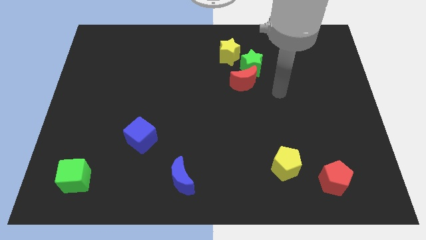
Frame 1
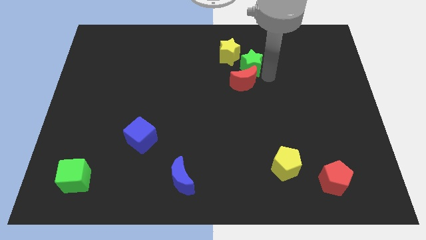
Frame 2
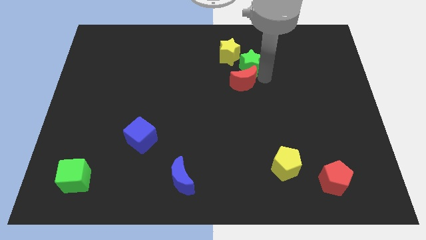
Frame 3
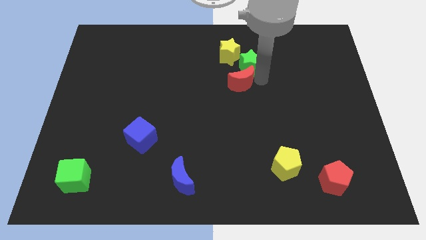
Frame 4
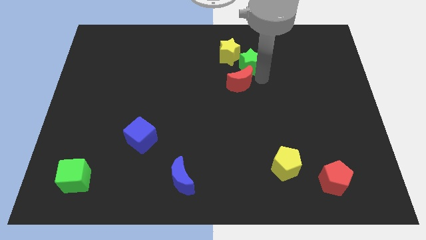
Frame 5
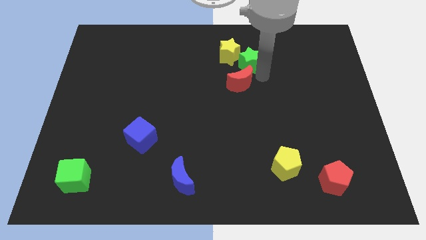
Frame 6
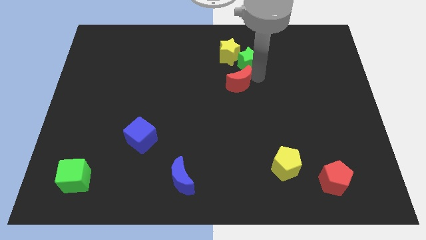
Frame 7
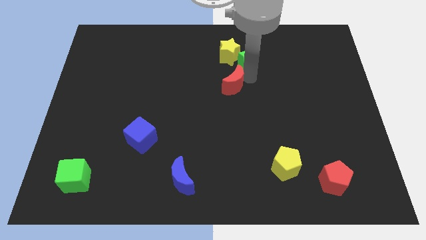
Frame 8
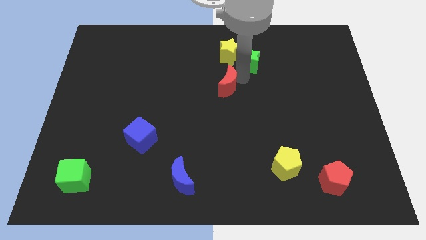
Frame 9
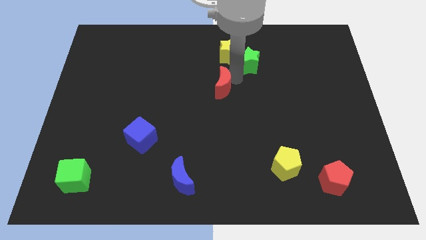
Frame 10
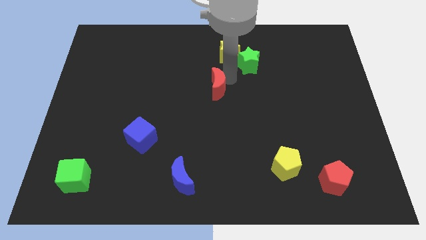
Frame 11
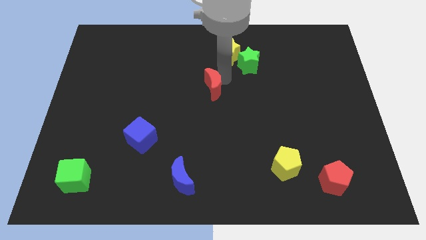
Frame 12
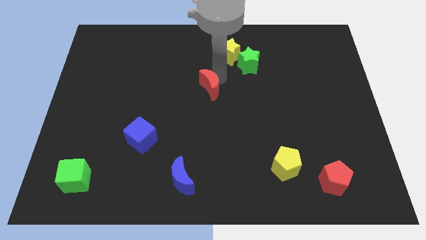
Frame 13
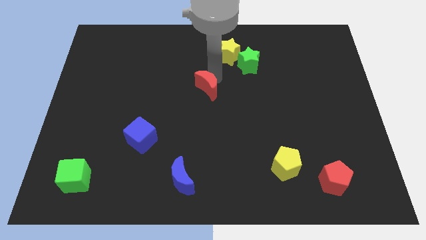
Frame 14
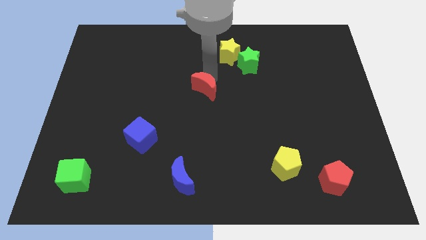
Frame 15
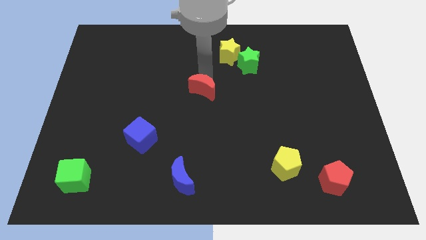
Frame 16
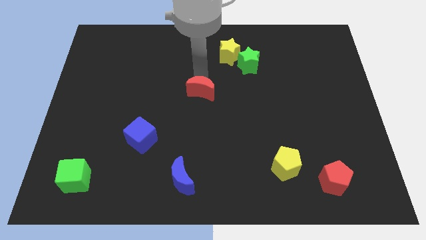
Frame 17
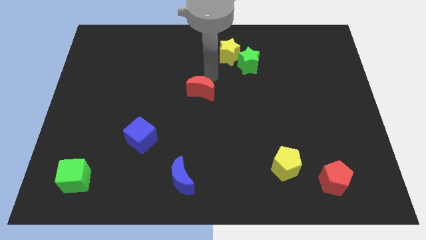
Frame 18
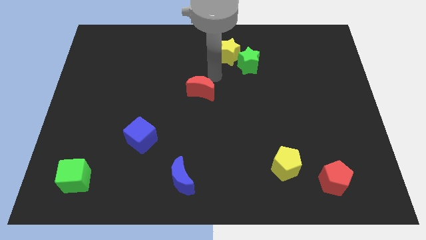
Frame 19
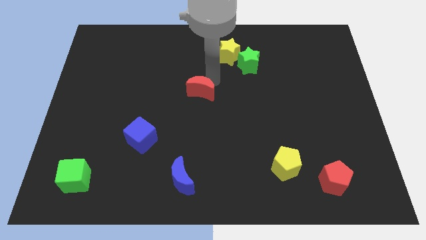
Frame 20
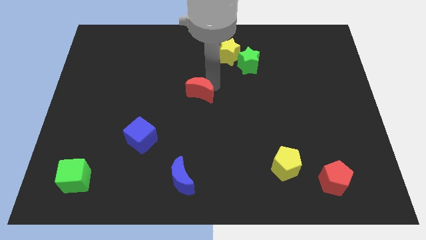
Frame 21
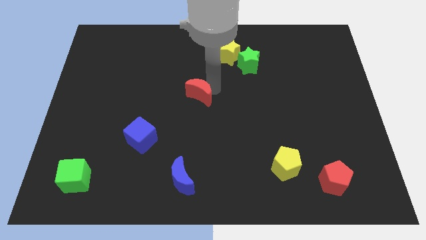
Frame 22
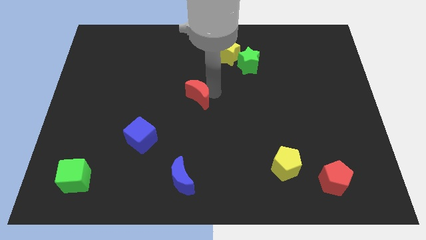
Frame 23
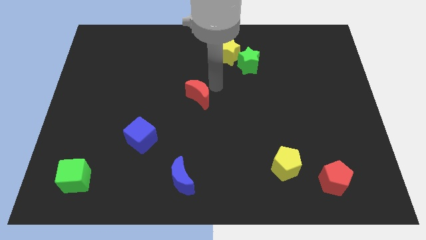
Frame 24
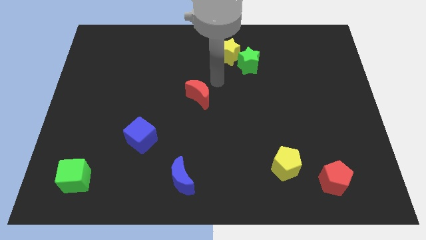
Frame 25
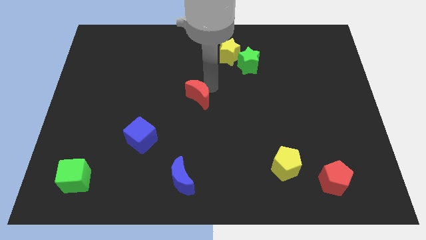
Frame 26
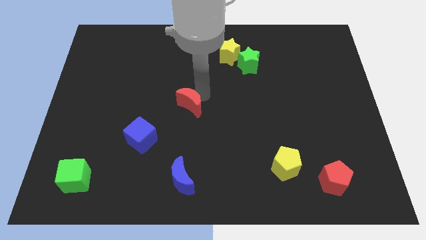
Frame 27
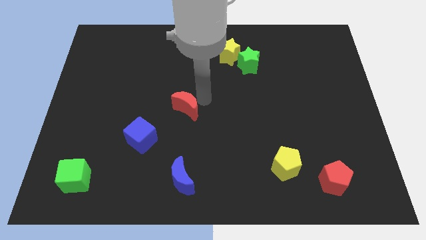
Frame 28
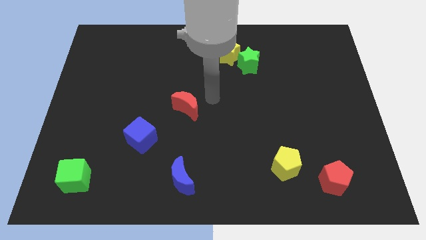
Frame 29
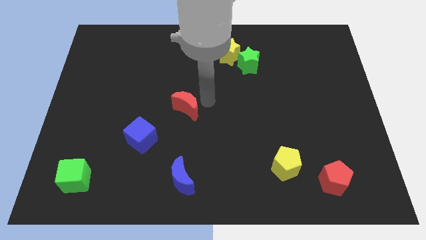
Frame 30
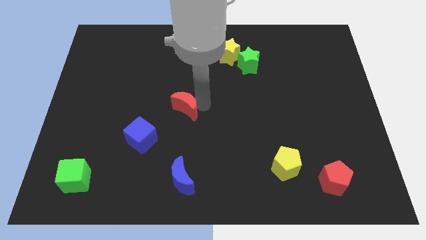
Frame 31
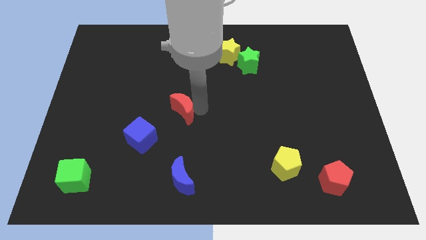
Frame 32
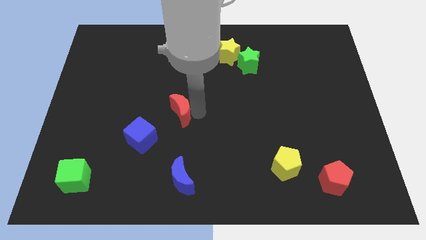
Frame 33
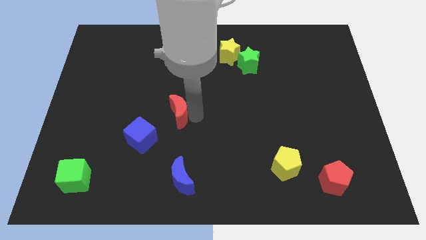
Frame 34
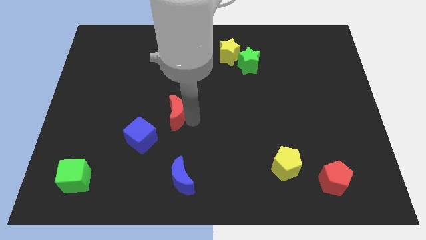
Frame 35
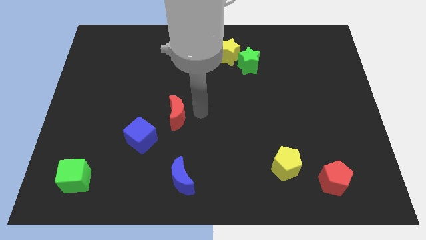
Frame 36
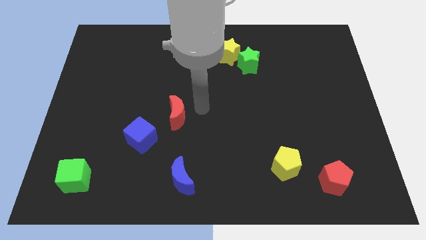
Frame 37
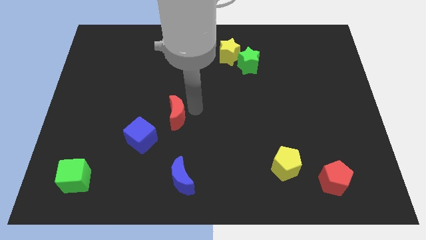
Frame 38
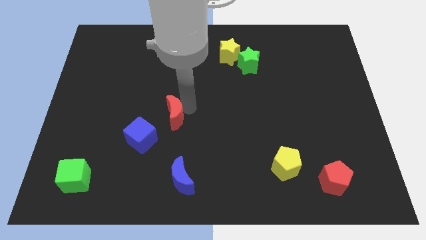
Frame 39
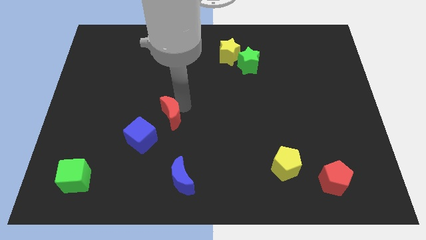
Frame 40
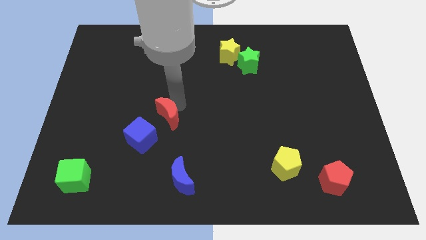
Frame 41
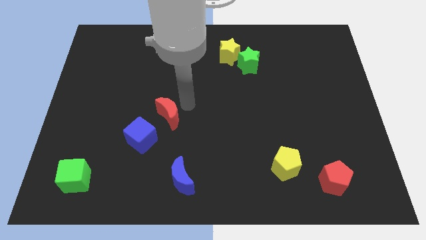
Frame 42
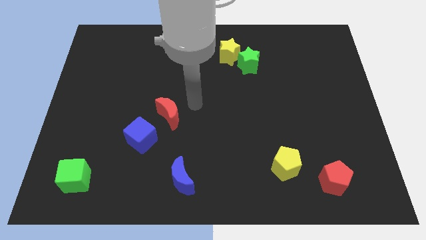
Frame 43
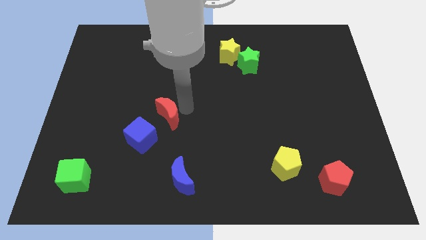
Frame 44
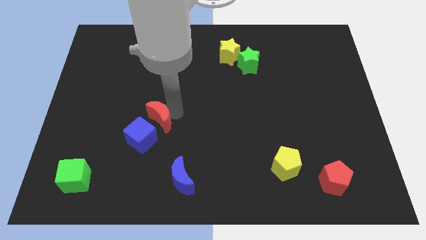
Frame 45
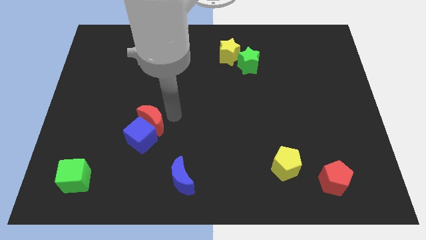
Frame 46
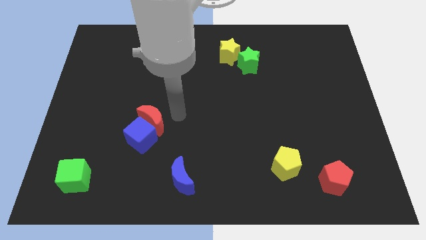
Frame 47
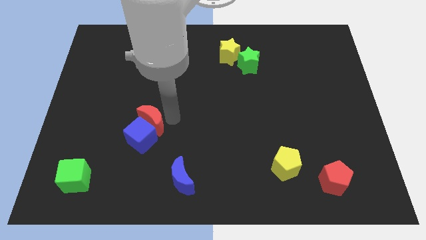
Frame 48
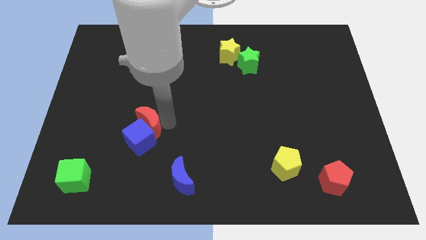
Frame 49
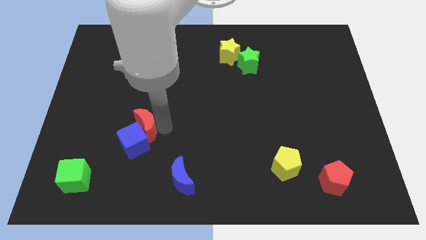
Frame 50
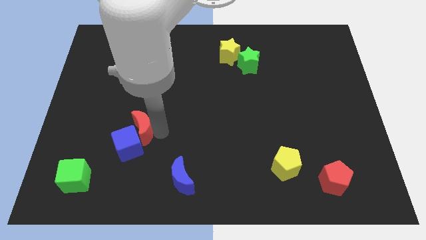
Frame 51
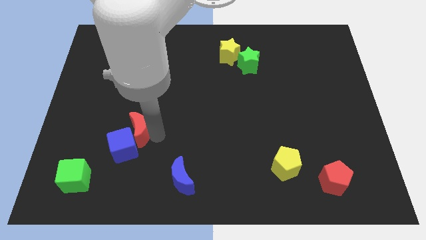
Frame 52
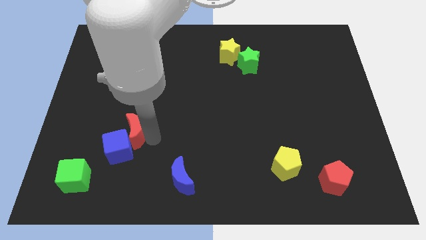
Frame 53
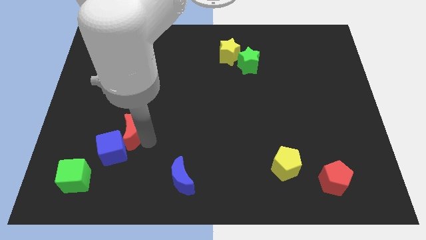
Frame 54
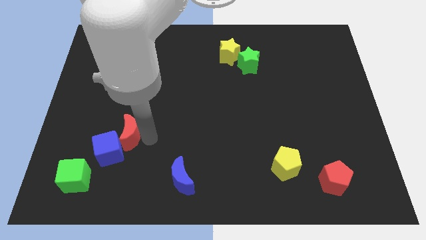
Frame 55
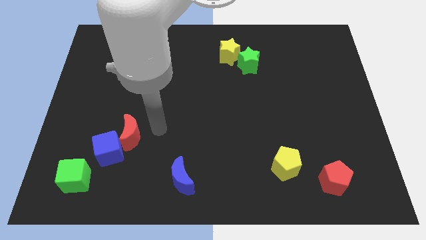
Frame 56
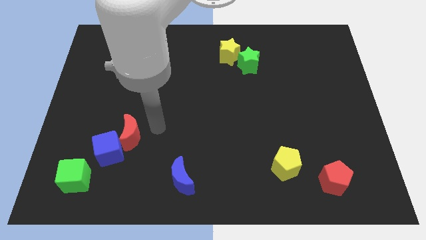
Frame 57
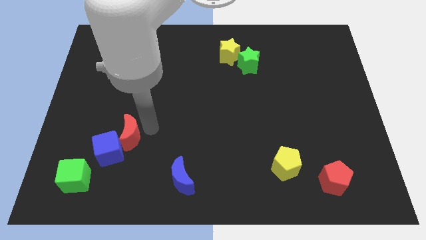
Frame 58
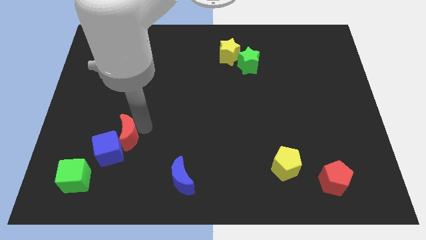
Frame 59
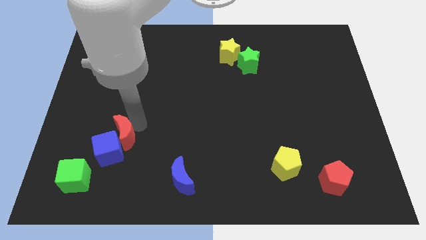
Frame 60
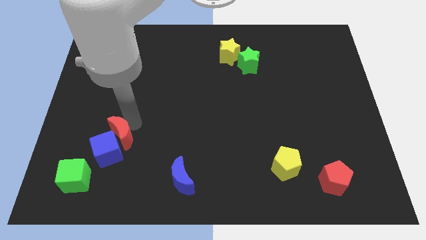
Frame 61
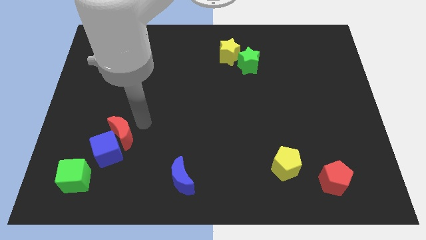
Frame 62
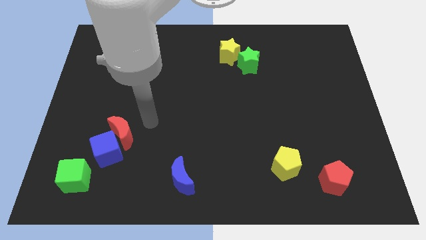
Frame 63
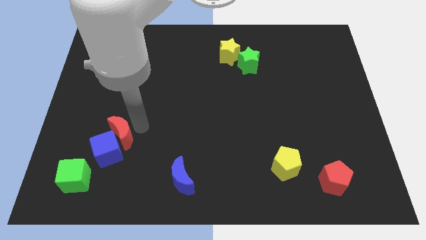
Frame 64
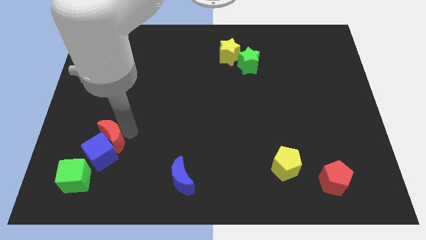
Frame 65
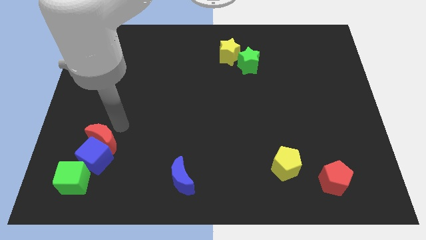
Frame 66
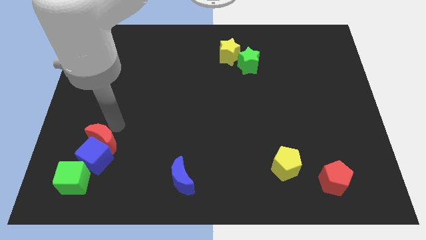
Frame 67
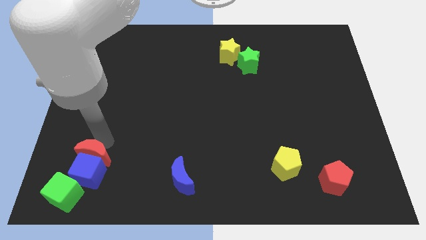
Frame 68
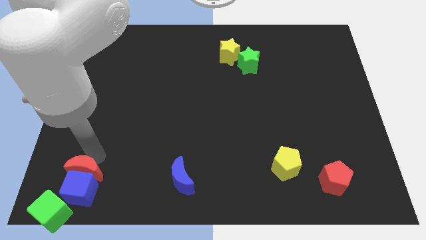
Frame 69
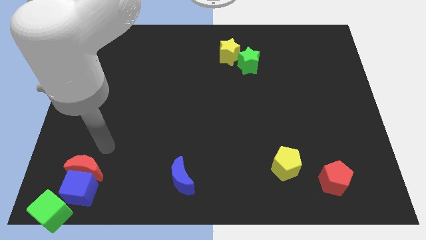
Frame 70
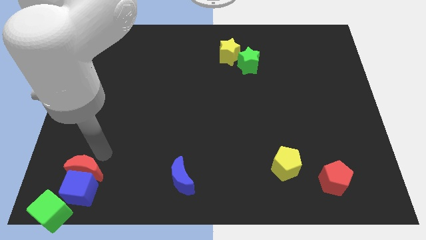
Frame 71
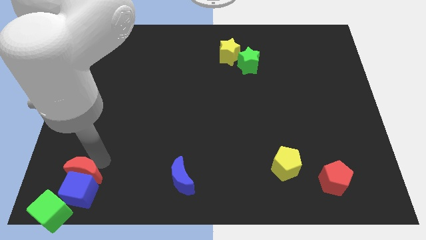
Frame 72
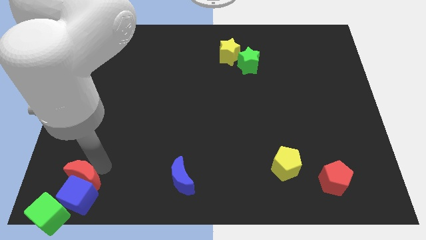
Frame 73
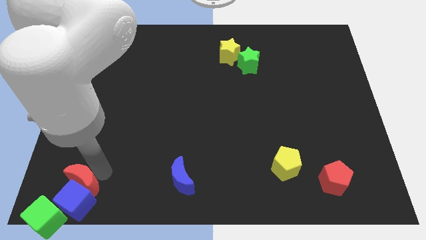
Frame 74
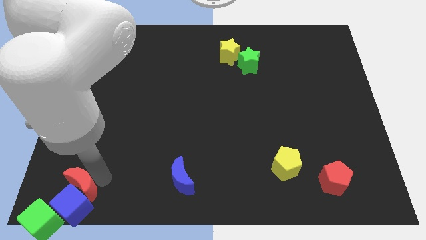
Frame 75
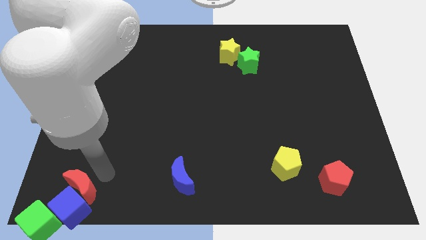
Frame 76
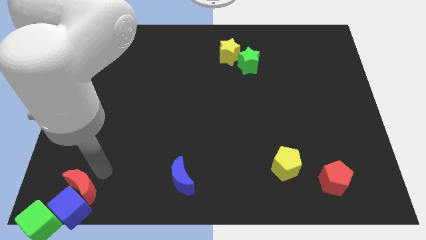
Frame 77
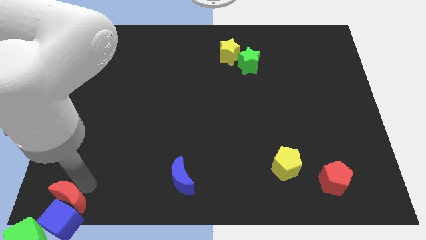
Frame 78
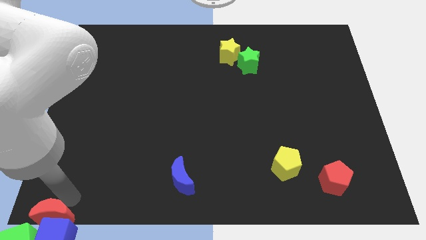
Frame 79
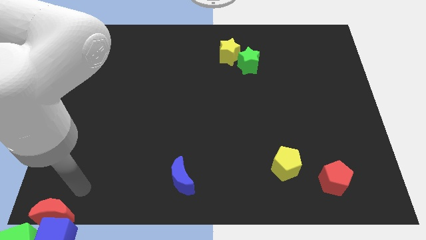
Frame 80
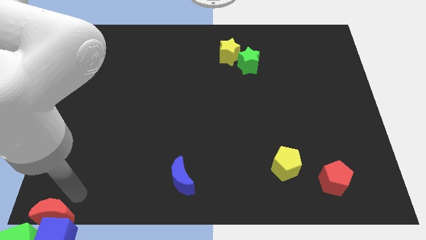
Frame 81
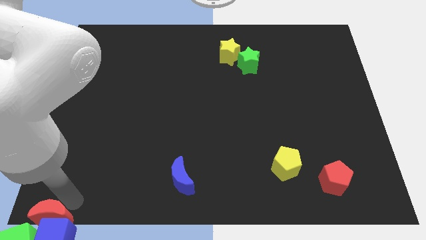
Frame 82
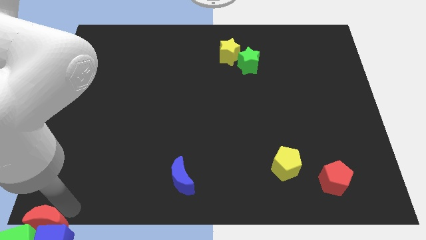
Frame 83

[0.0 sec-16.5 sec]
put the red moon to the green cube
